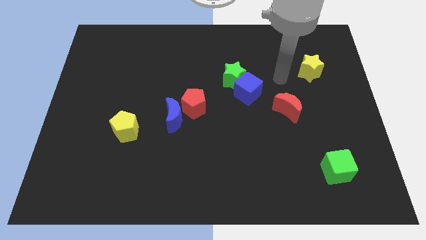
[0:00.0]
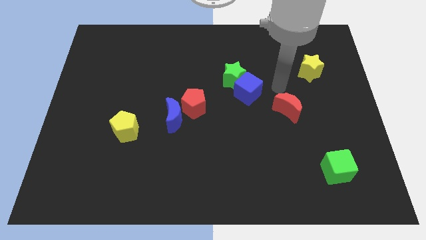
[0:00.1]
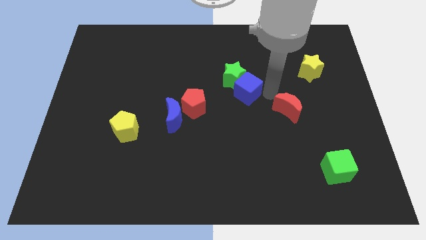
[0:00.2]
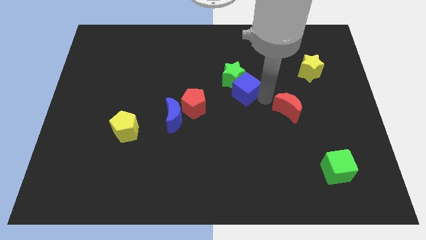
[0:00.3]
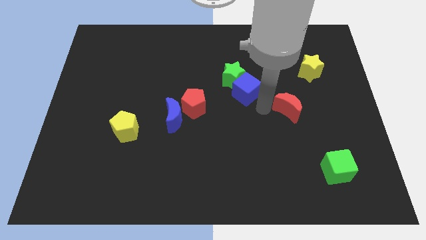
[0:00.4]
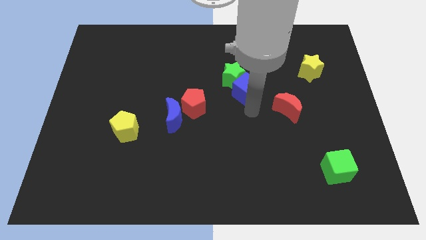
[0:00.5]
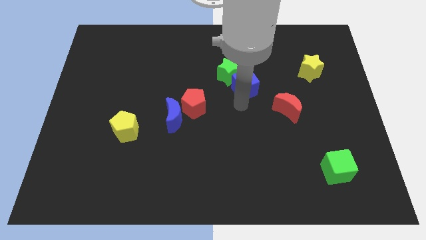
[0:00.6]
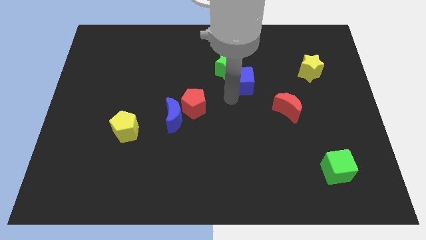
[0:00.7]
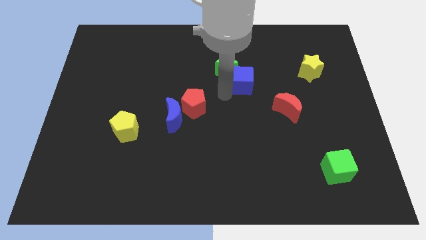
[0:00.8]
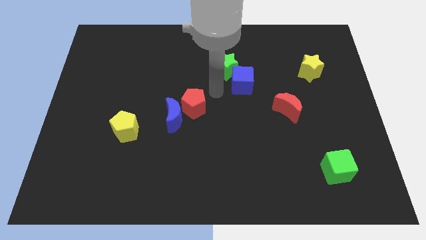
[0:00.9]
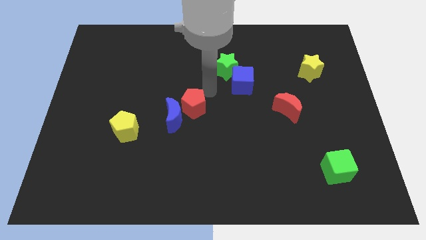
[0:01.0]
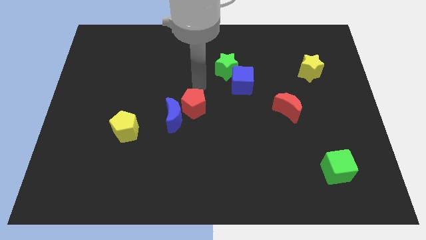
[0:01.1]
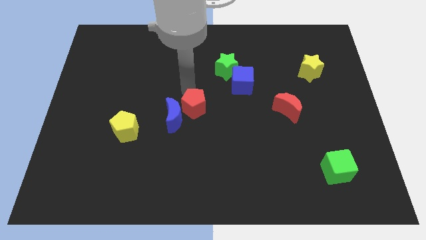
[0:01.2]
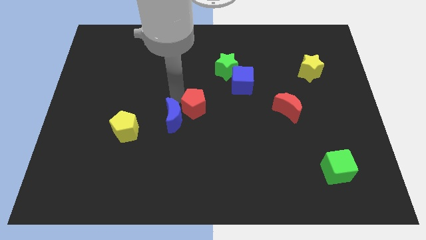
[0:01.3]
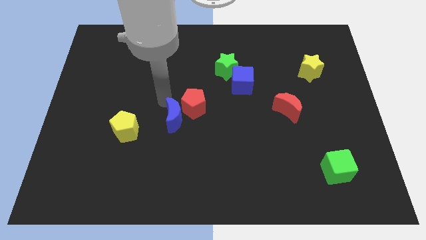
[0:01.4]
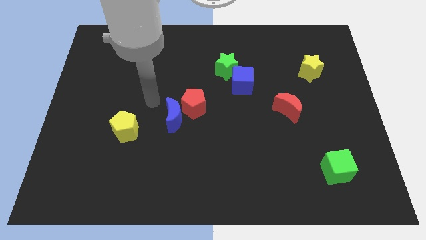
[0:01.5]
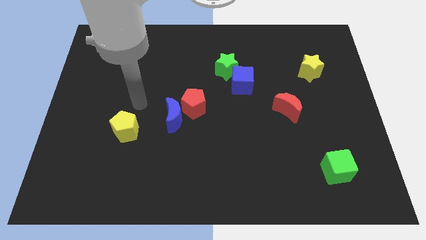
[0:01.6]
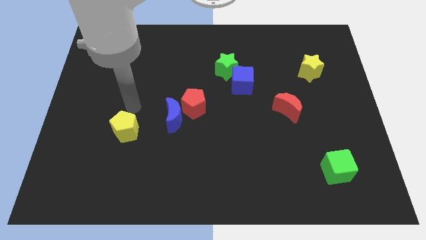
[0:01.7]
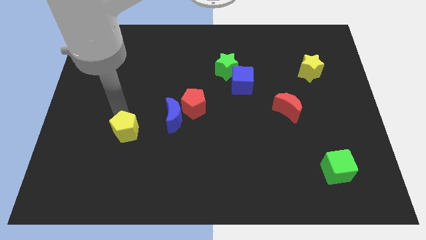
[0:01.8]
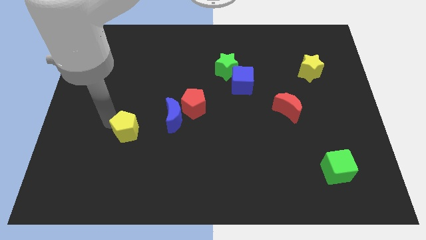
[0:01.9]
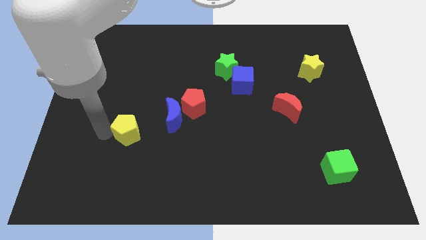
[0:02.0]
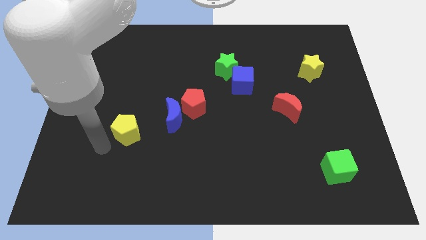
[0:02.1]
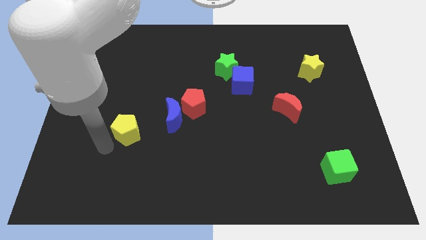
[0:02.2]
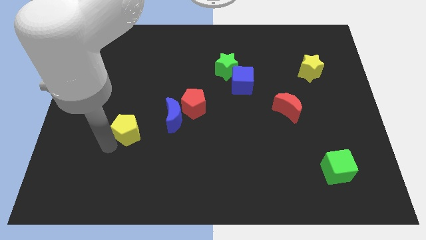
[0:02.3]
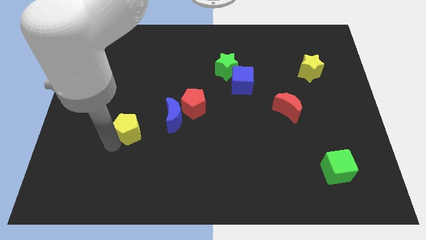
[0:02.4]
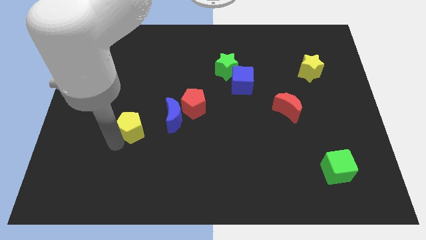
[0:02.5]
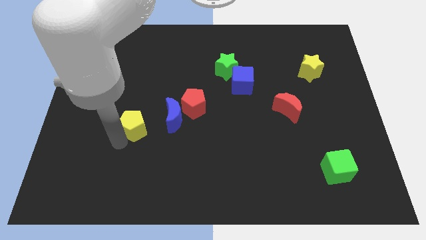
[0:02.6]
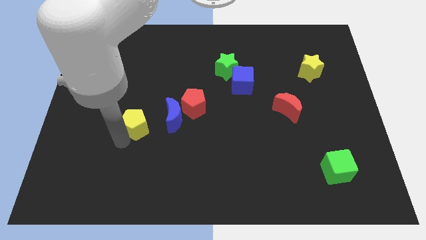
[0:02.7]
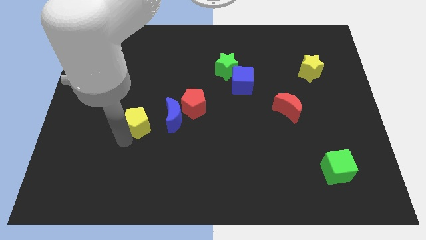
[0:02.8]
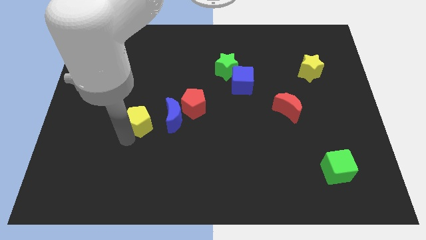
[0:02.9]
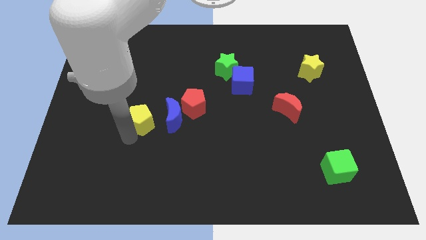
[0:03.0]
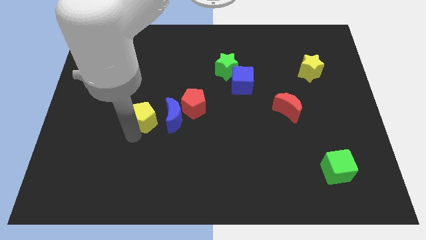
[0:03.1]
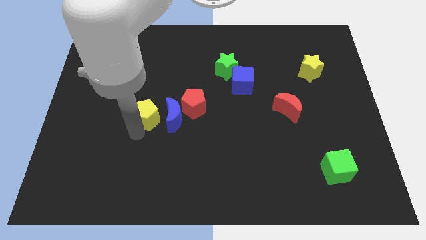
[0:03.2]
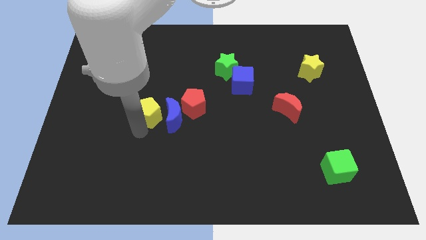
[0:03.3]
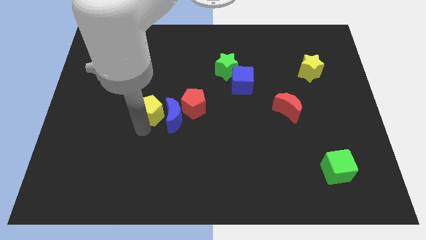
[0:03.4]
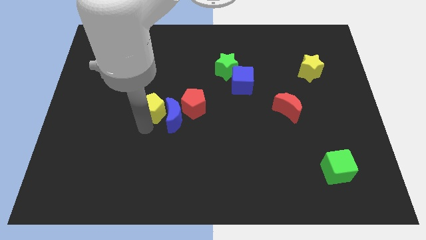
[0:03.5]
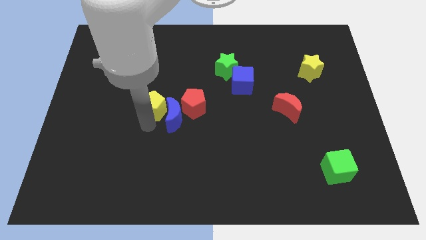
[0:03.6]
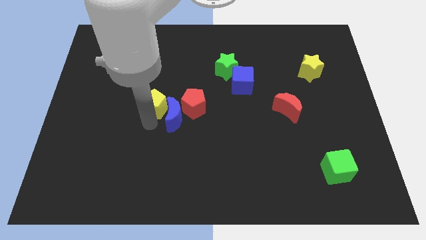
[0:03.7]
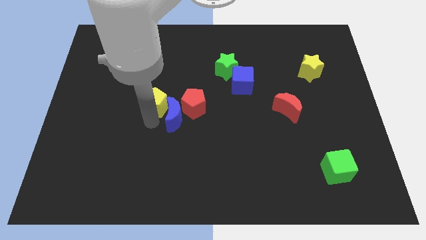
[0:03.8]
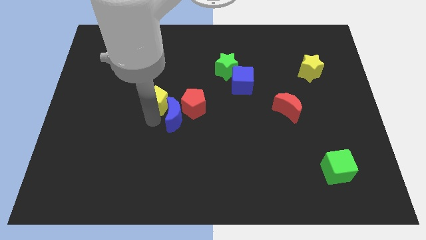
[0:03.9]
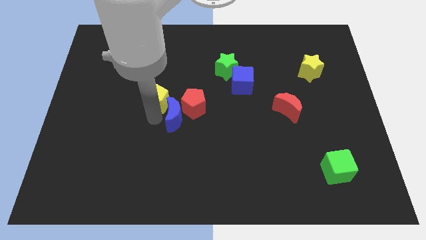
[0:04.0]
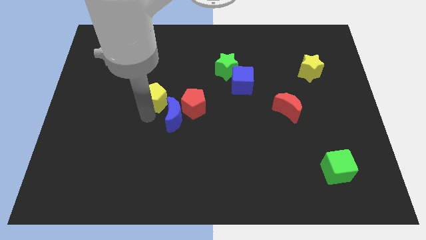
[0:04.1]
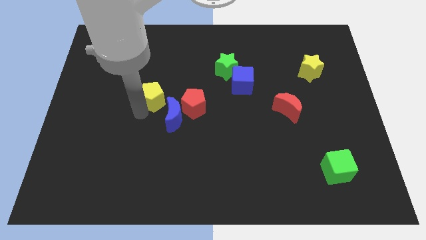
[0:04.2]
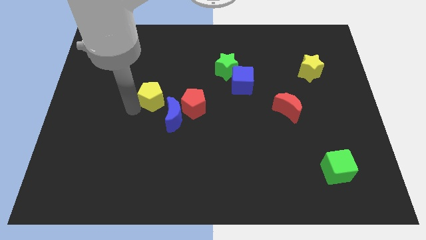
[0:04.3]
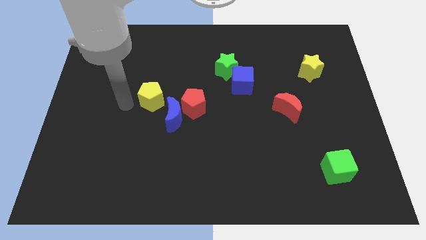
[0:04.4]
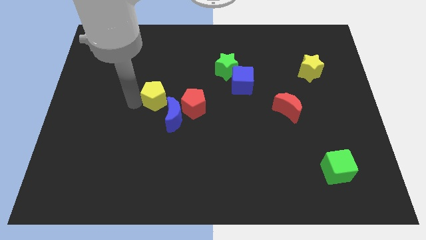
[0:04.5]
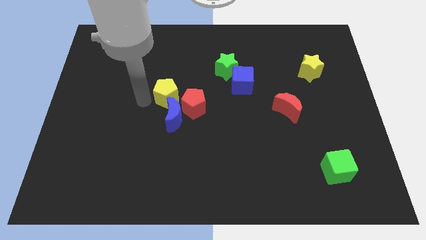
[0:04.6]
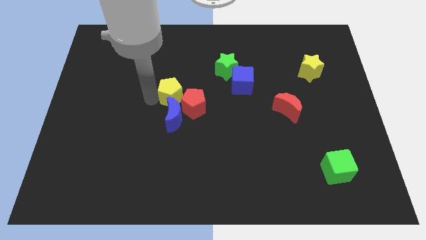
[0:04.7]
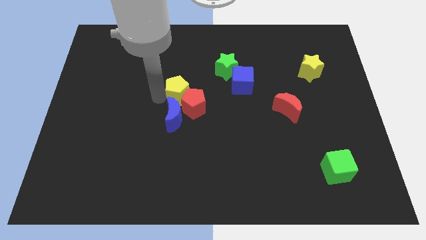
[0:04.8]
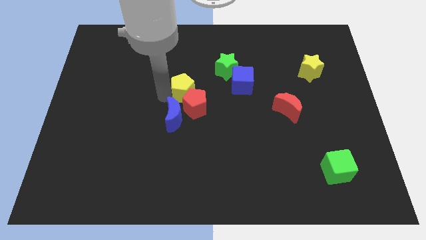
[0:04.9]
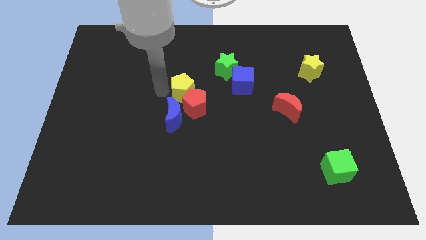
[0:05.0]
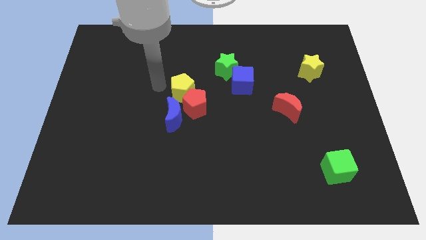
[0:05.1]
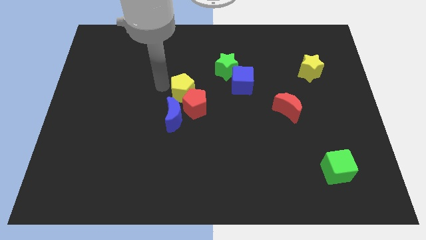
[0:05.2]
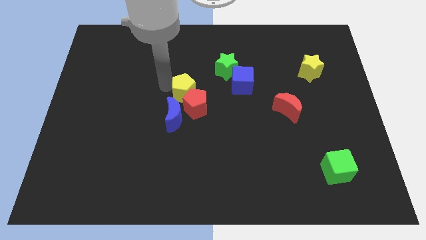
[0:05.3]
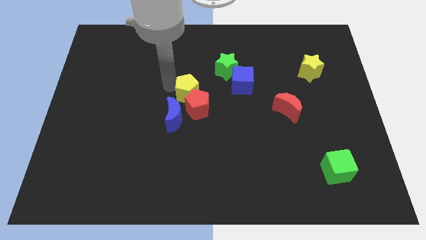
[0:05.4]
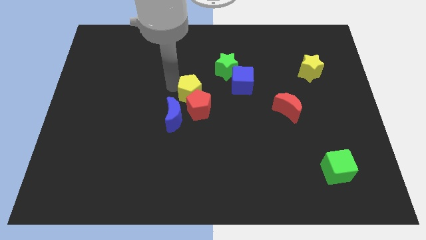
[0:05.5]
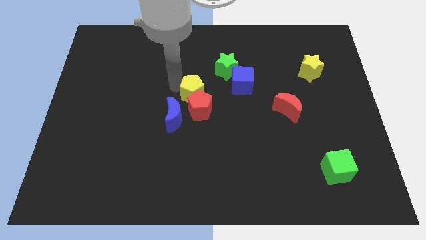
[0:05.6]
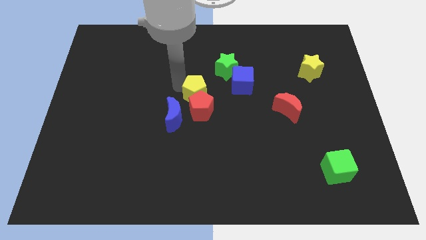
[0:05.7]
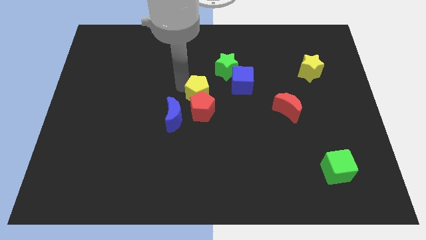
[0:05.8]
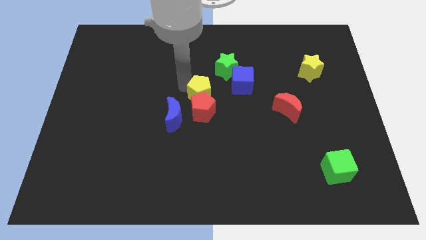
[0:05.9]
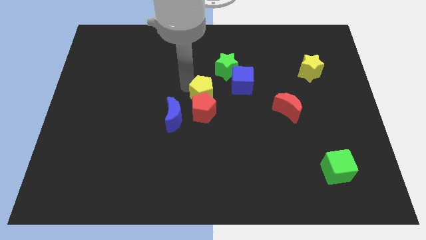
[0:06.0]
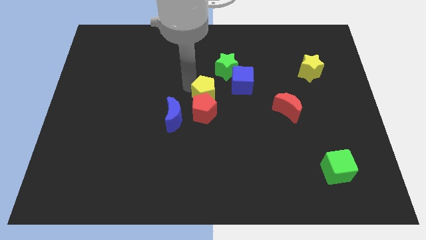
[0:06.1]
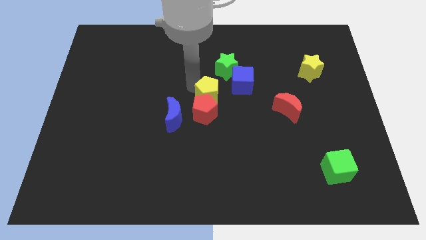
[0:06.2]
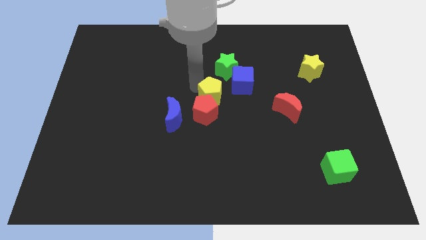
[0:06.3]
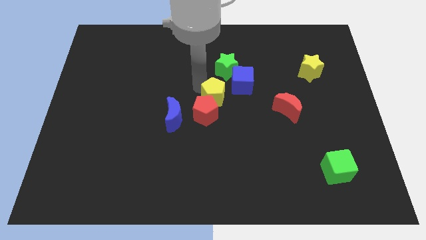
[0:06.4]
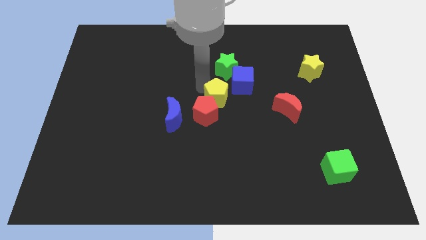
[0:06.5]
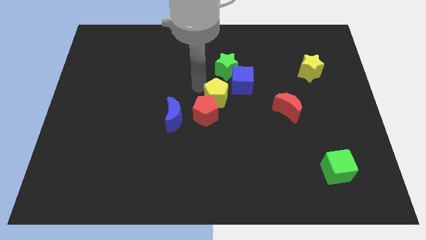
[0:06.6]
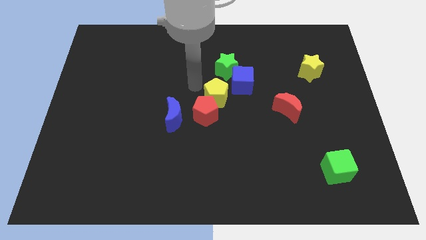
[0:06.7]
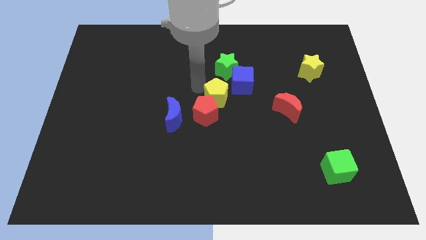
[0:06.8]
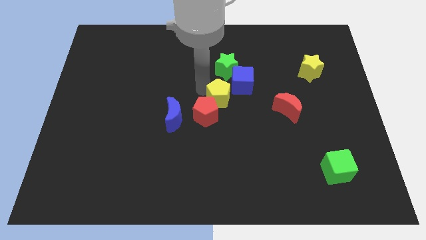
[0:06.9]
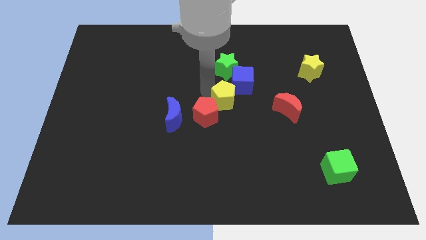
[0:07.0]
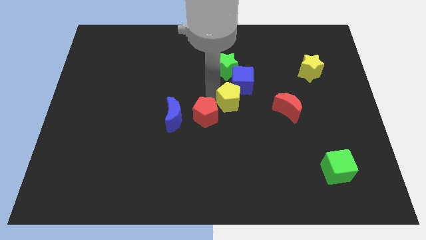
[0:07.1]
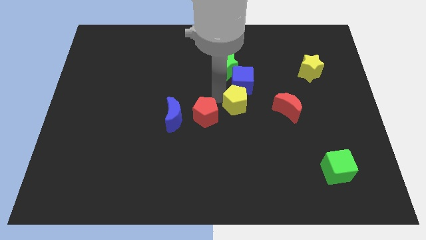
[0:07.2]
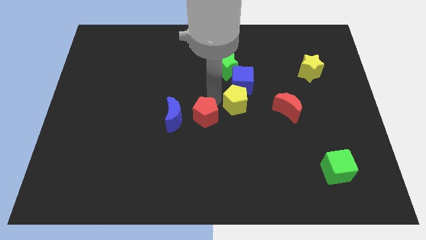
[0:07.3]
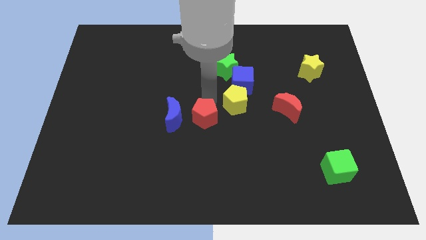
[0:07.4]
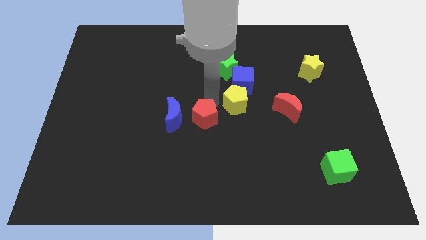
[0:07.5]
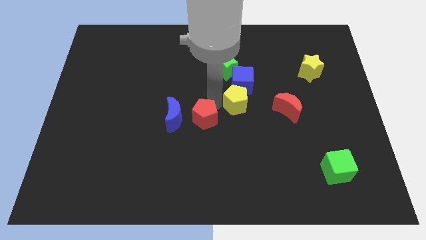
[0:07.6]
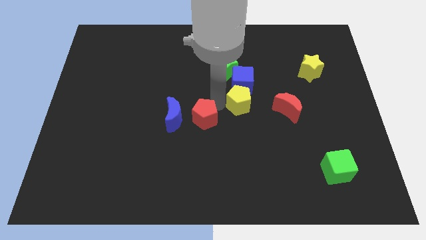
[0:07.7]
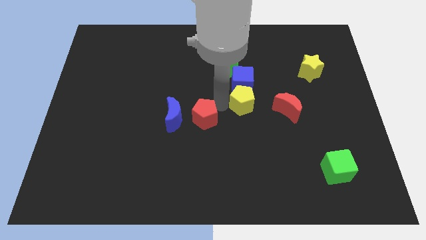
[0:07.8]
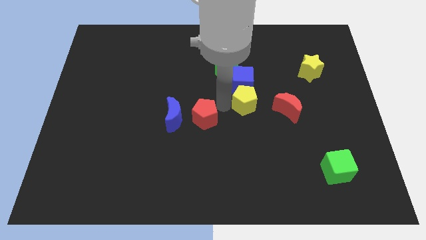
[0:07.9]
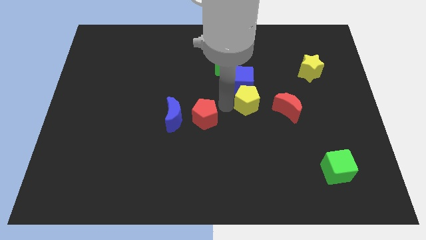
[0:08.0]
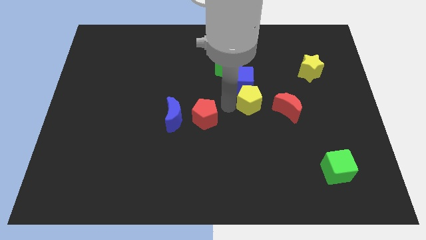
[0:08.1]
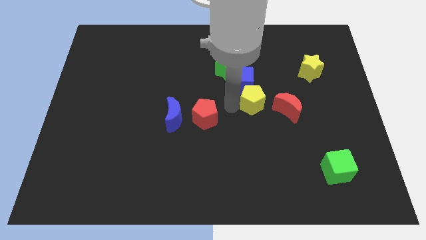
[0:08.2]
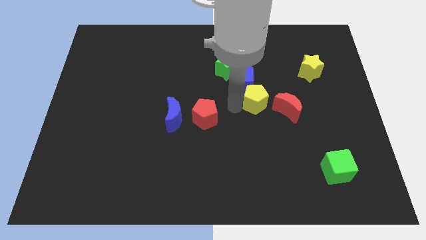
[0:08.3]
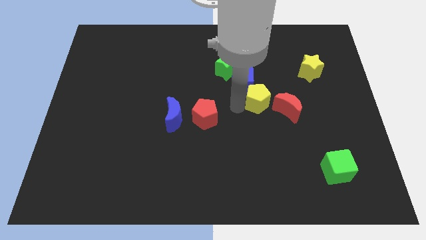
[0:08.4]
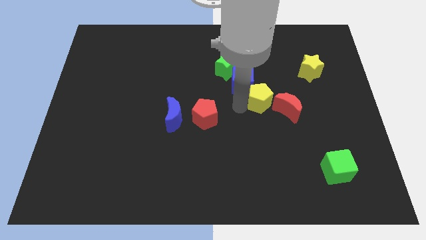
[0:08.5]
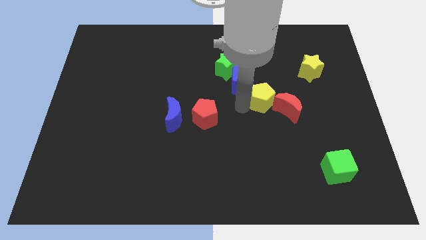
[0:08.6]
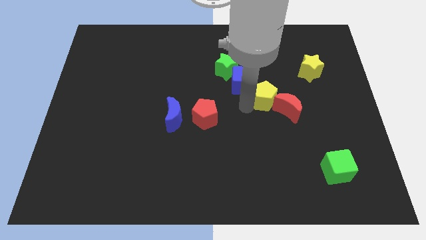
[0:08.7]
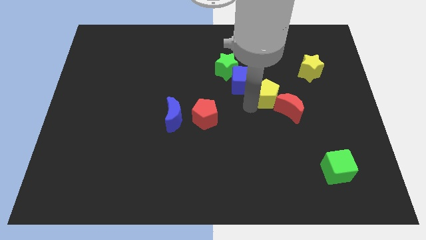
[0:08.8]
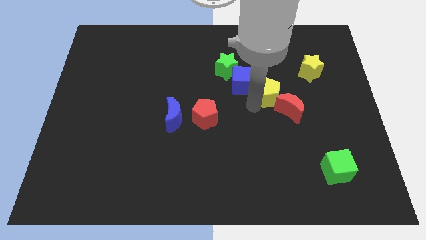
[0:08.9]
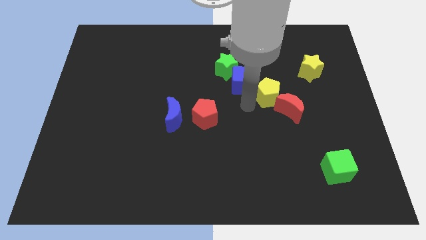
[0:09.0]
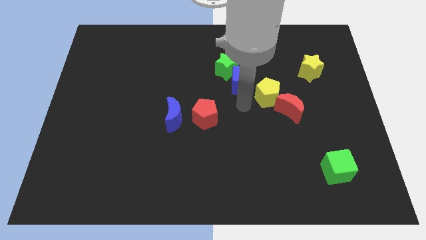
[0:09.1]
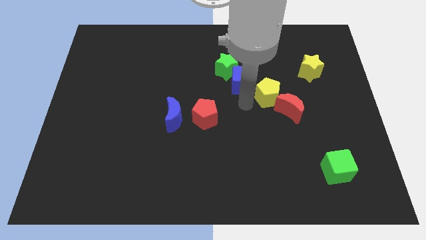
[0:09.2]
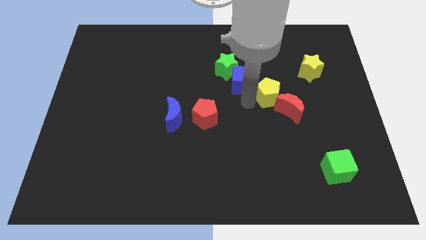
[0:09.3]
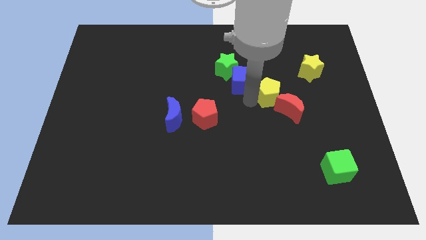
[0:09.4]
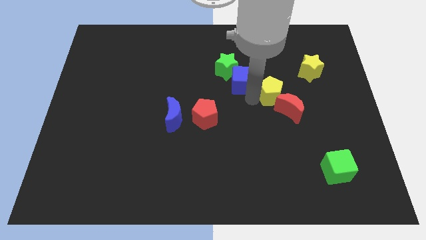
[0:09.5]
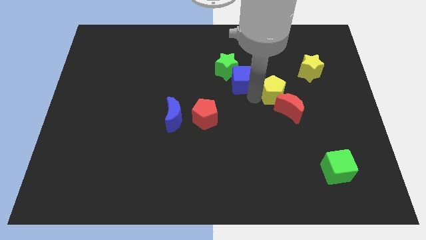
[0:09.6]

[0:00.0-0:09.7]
slide the yellow pentagon to the bottom left of the yellow star
